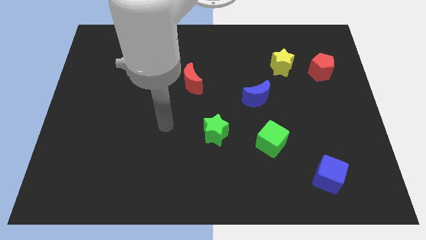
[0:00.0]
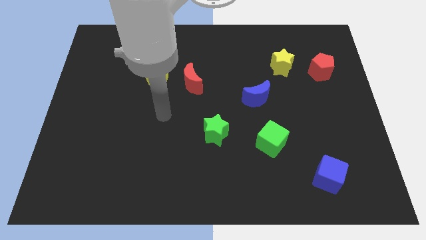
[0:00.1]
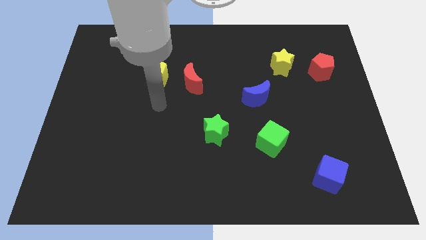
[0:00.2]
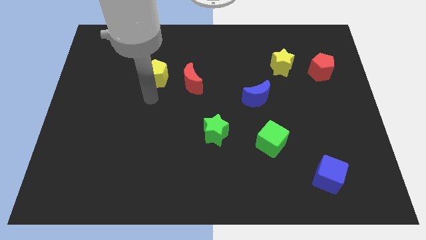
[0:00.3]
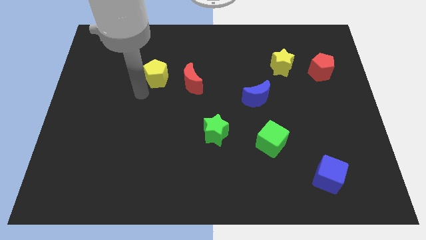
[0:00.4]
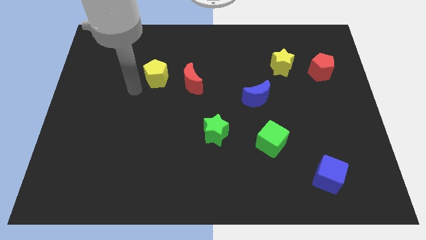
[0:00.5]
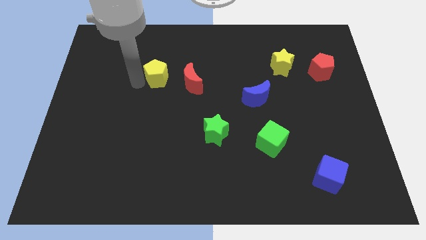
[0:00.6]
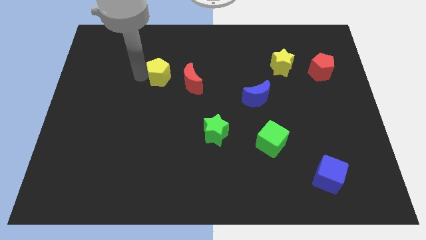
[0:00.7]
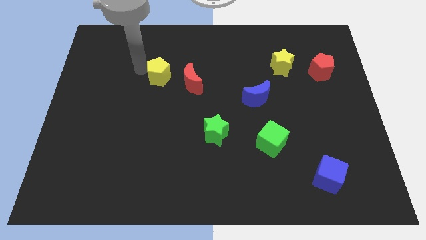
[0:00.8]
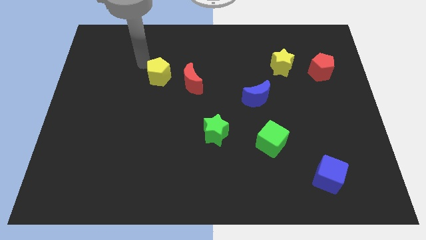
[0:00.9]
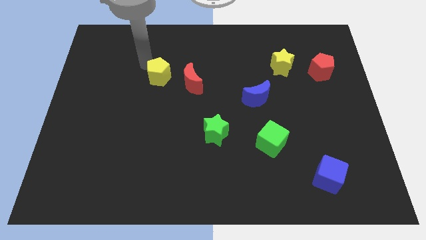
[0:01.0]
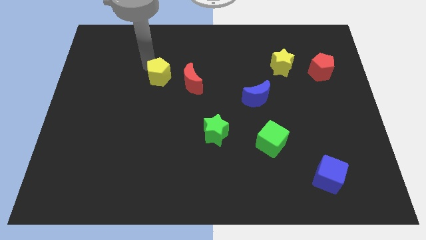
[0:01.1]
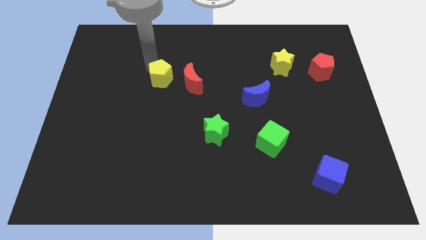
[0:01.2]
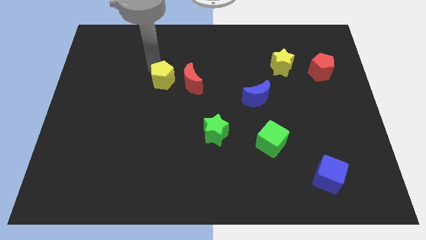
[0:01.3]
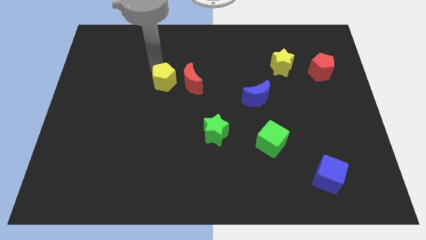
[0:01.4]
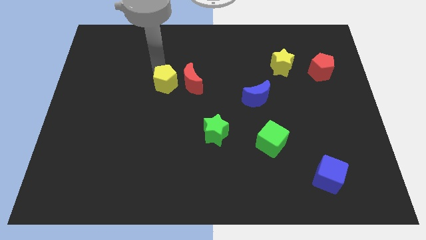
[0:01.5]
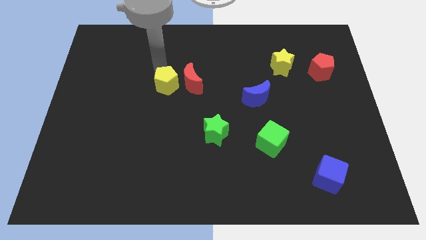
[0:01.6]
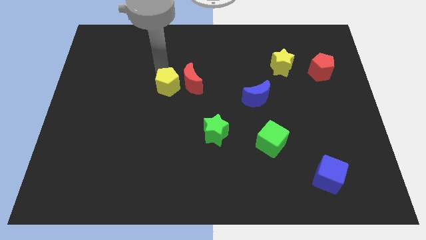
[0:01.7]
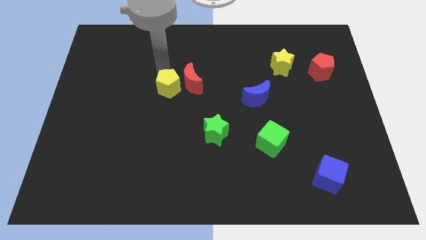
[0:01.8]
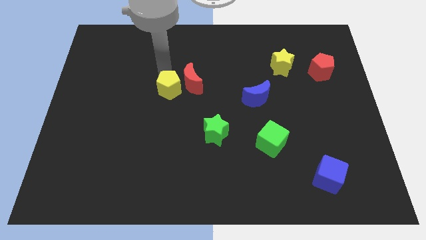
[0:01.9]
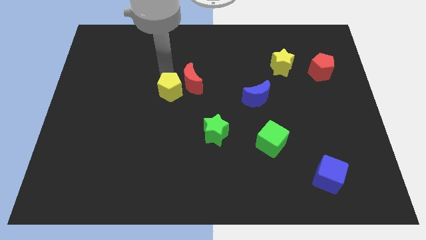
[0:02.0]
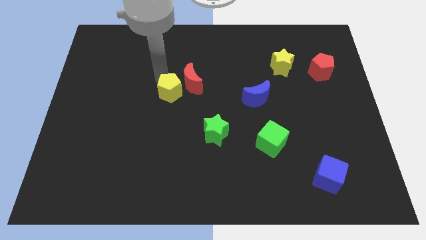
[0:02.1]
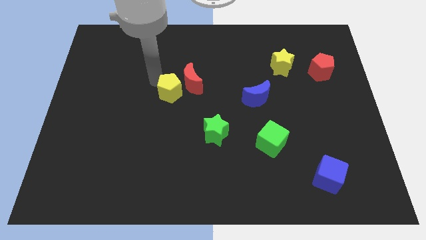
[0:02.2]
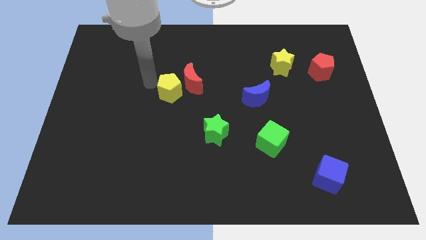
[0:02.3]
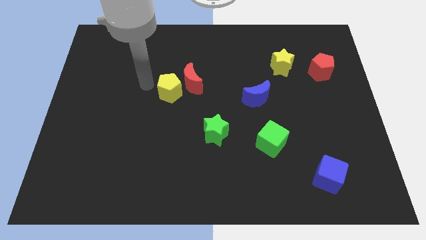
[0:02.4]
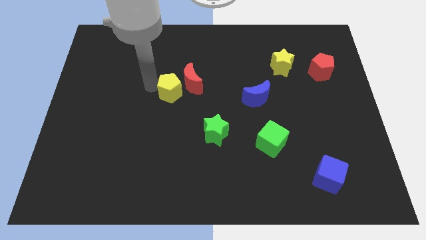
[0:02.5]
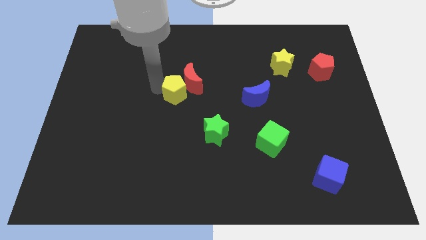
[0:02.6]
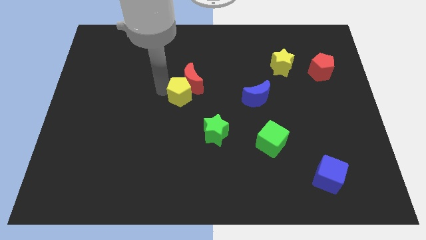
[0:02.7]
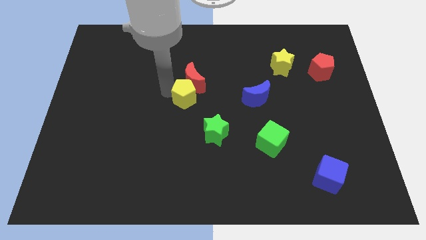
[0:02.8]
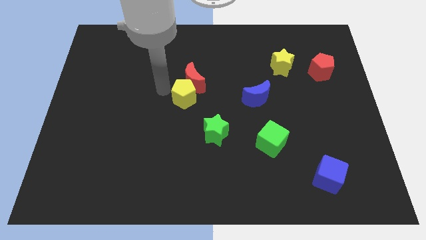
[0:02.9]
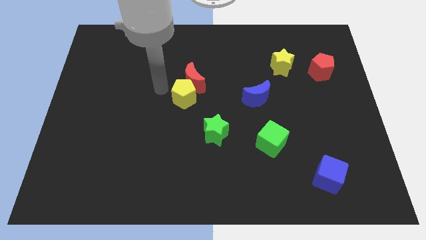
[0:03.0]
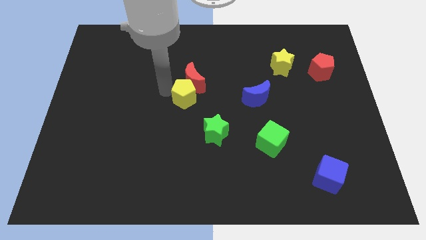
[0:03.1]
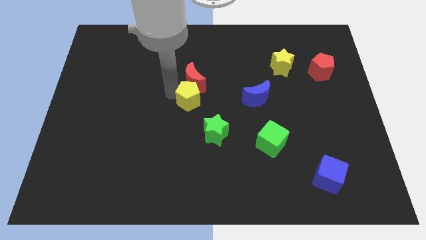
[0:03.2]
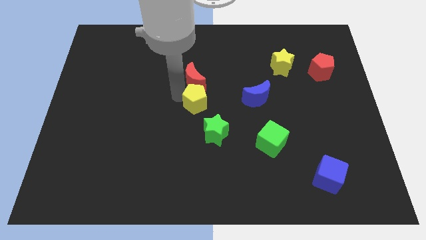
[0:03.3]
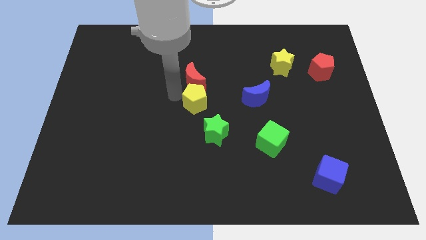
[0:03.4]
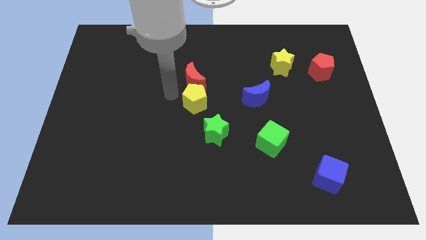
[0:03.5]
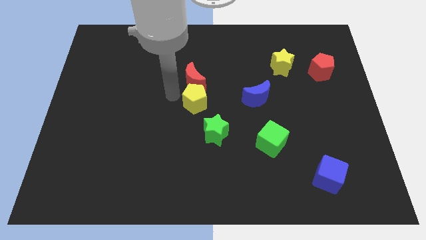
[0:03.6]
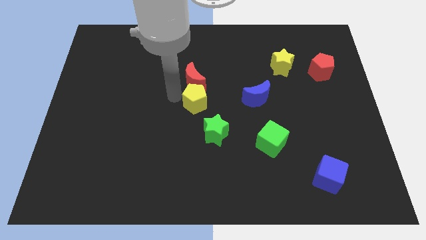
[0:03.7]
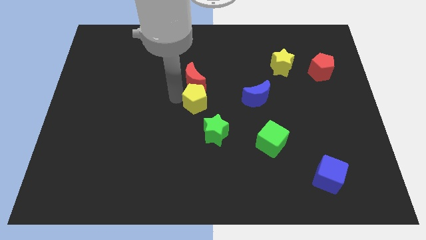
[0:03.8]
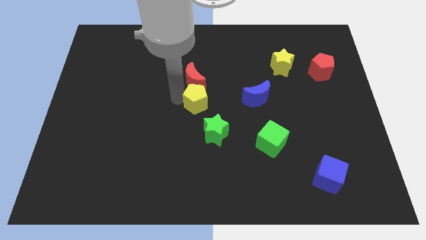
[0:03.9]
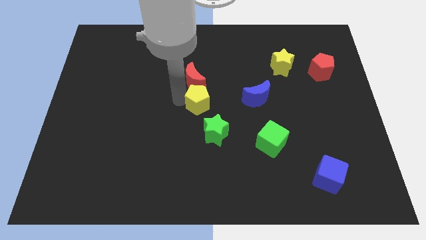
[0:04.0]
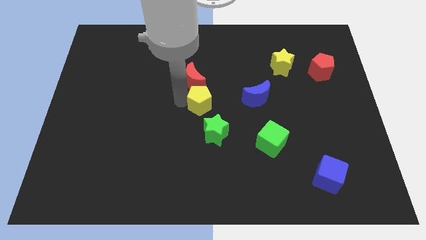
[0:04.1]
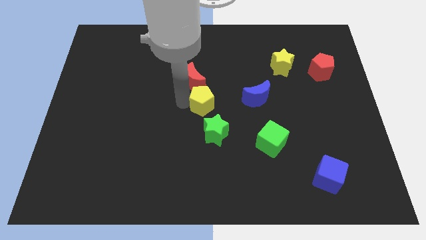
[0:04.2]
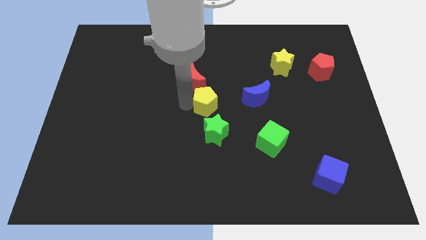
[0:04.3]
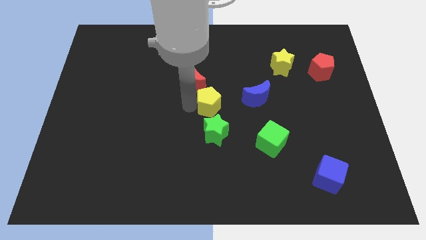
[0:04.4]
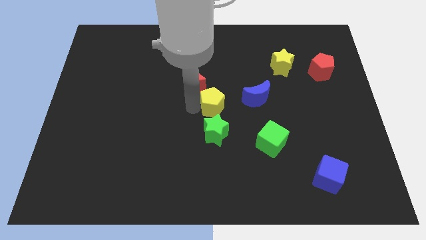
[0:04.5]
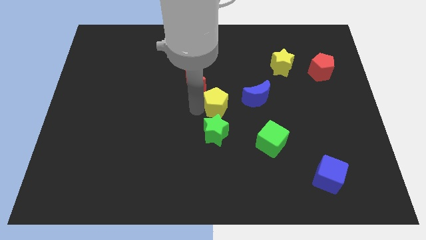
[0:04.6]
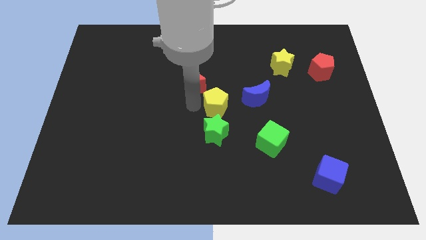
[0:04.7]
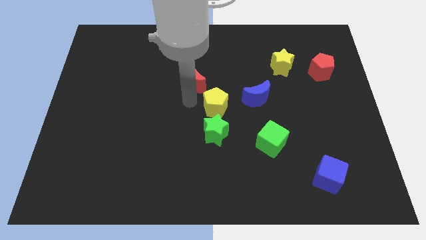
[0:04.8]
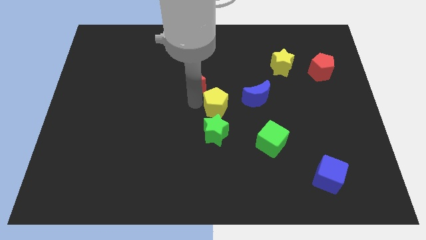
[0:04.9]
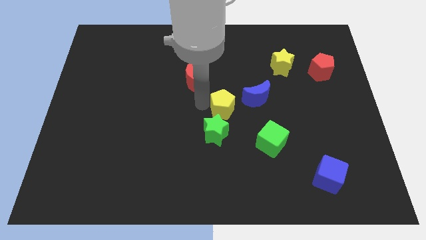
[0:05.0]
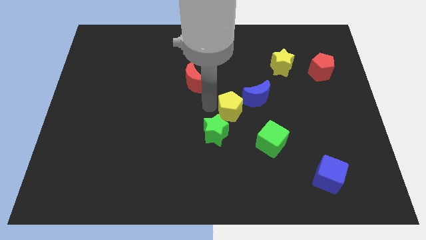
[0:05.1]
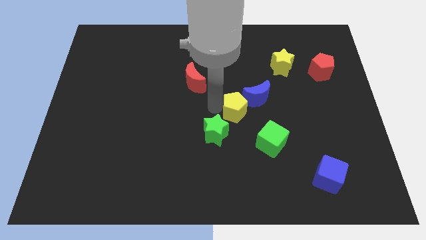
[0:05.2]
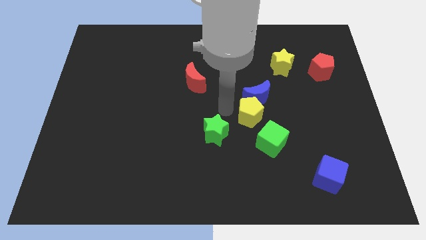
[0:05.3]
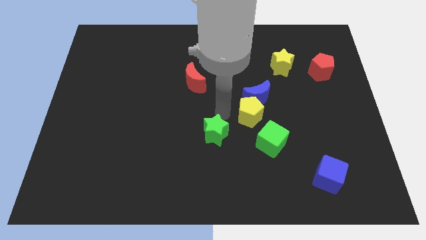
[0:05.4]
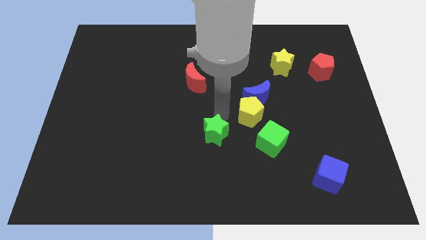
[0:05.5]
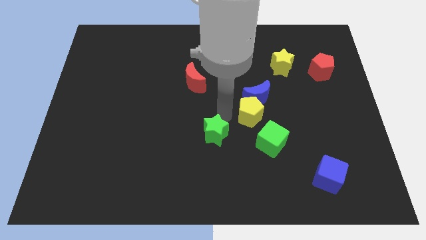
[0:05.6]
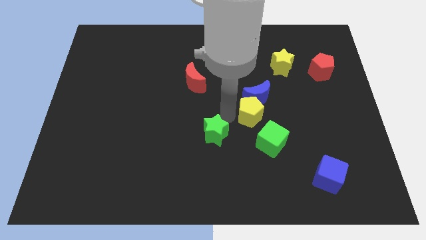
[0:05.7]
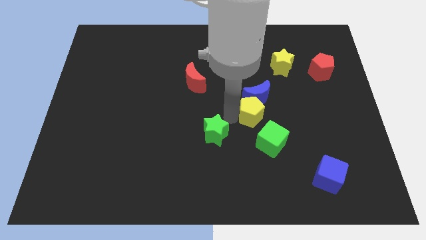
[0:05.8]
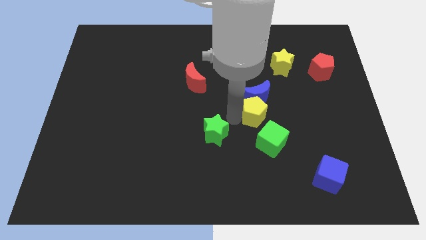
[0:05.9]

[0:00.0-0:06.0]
move the yellow pentagon to the bottom right side of the blue moon

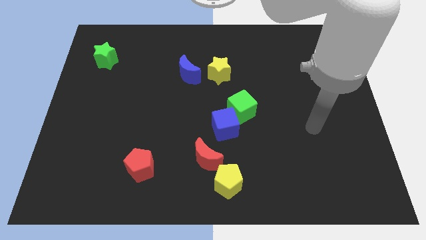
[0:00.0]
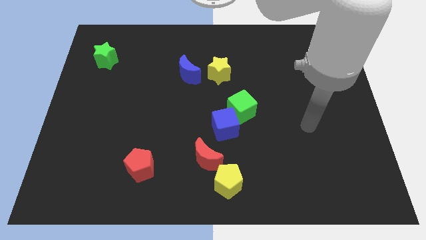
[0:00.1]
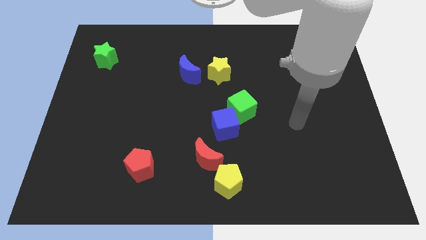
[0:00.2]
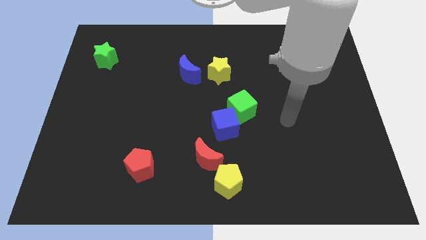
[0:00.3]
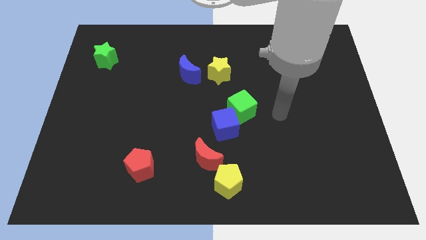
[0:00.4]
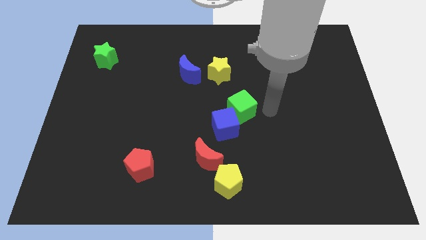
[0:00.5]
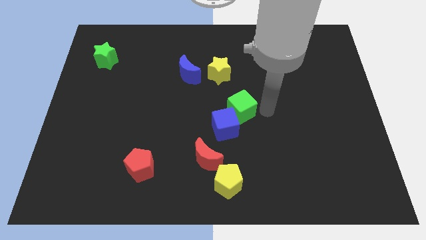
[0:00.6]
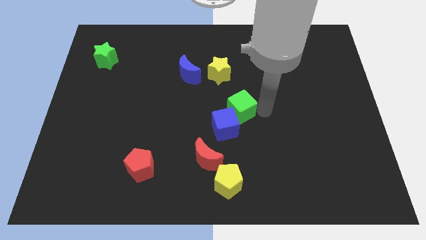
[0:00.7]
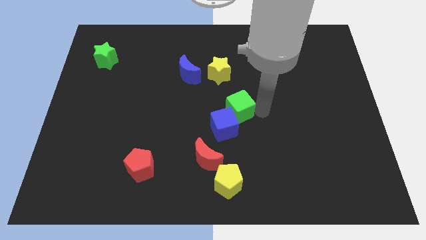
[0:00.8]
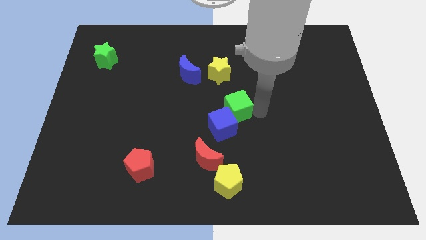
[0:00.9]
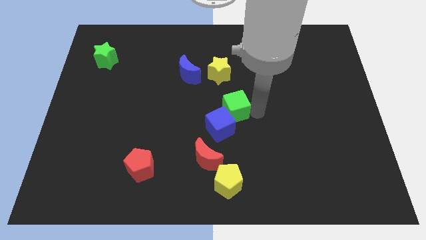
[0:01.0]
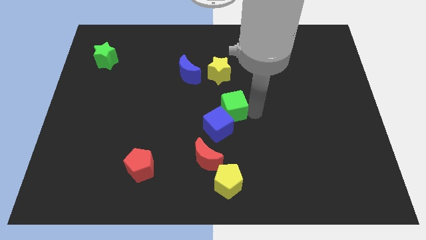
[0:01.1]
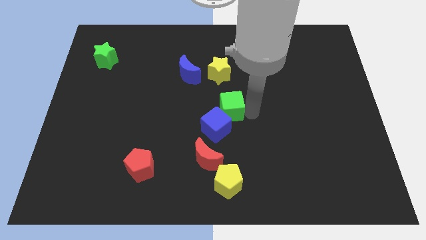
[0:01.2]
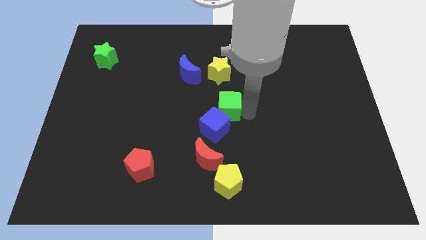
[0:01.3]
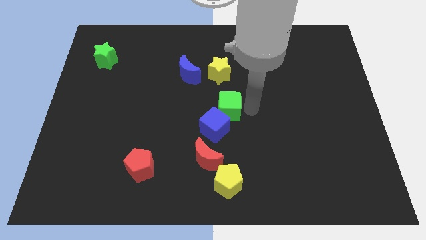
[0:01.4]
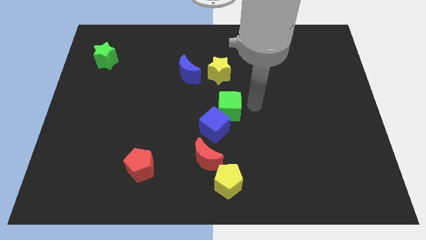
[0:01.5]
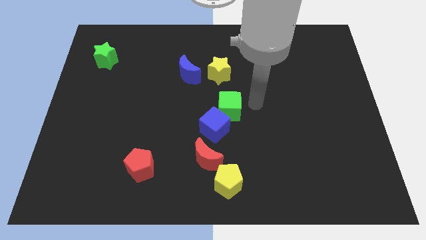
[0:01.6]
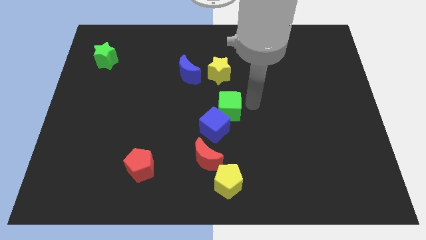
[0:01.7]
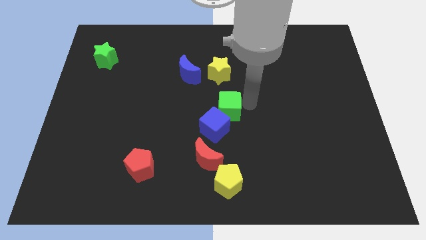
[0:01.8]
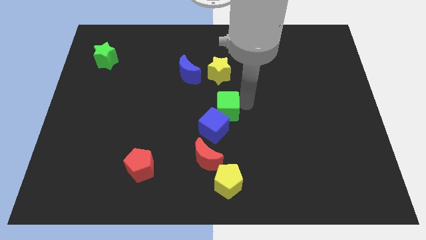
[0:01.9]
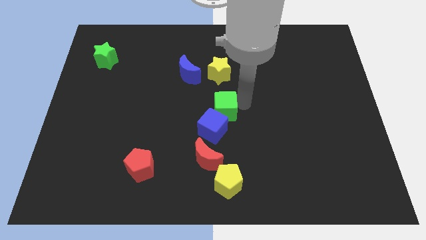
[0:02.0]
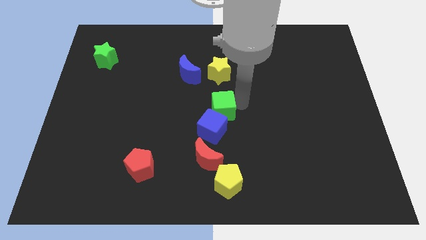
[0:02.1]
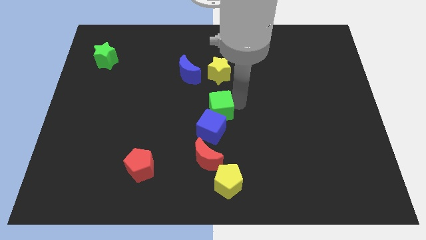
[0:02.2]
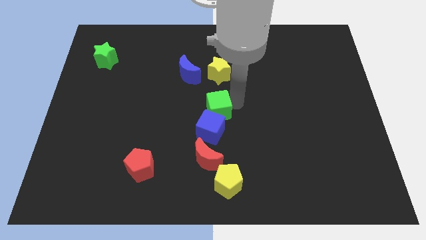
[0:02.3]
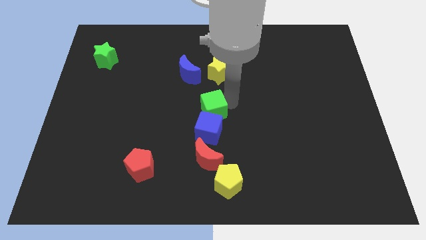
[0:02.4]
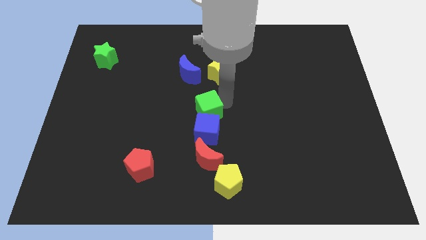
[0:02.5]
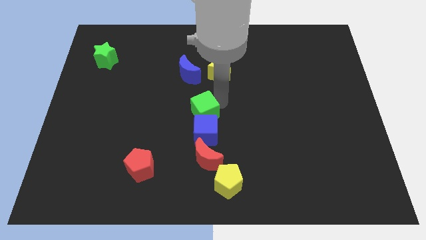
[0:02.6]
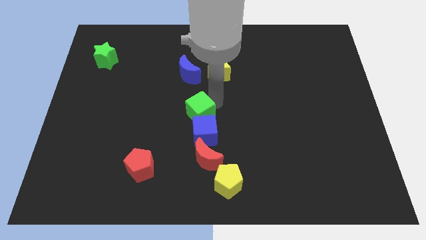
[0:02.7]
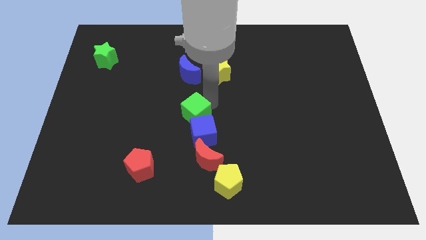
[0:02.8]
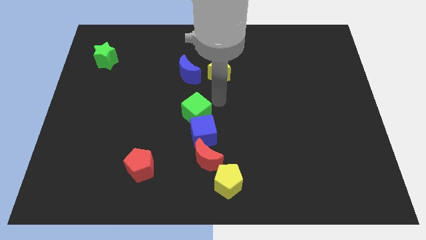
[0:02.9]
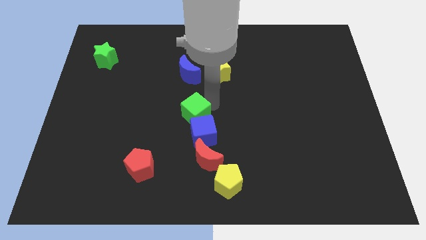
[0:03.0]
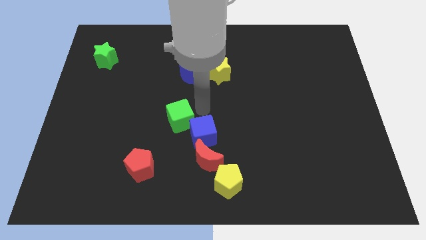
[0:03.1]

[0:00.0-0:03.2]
put the green cube just left of the blue cube
